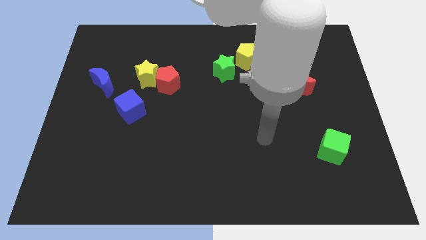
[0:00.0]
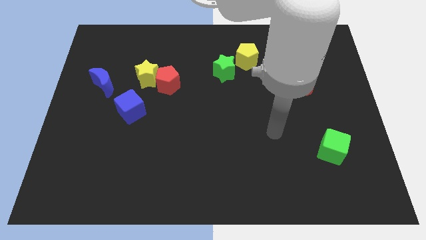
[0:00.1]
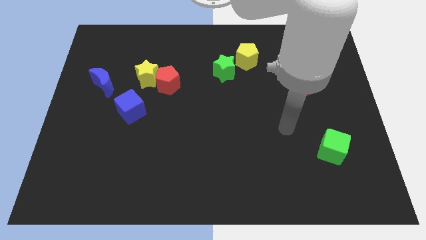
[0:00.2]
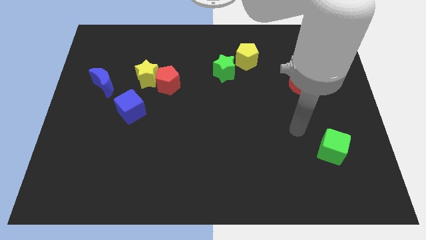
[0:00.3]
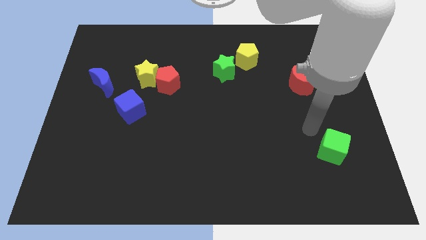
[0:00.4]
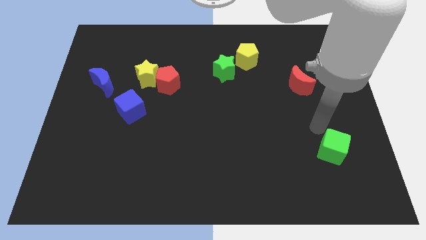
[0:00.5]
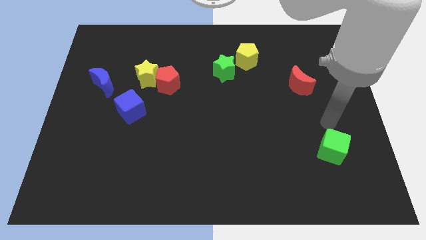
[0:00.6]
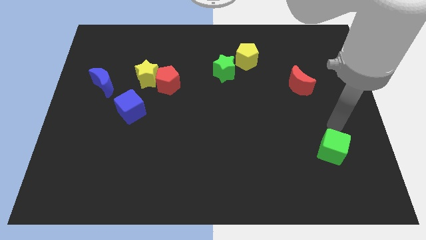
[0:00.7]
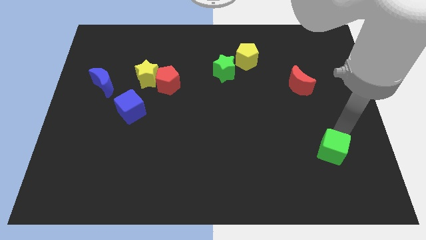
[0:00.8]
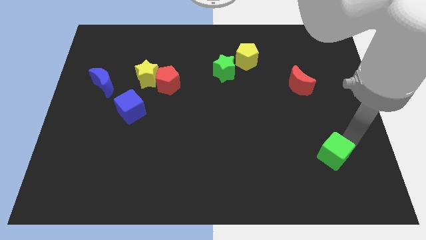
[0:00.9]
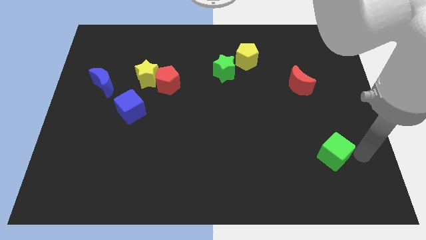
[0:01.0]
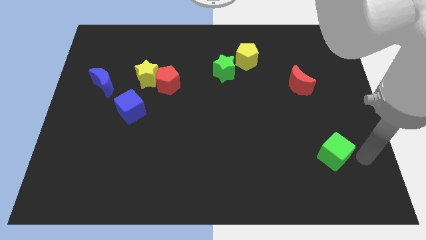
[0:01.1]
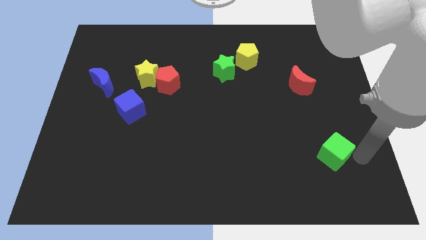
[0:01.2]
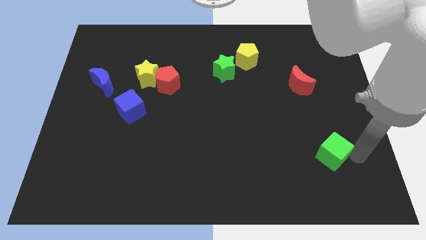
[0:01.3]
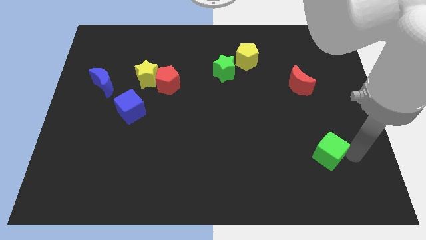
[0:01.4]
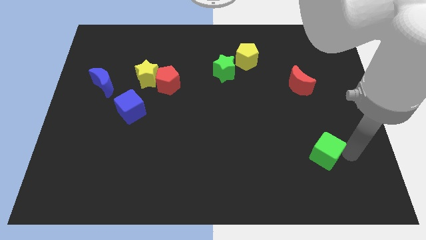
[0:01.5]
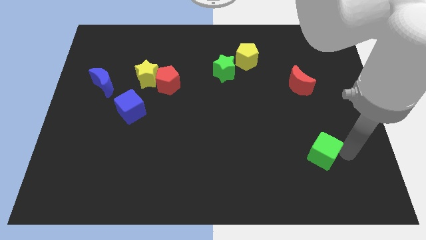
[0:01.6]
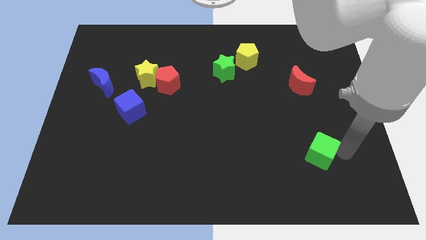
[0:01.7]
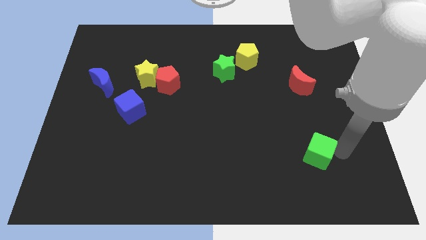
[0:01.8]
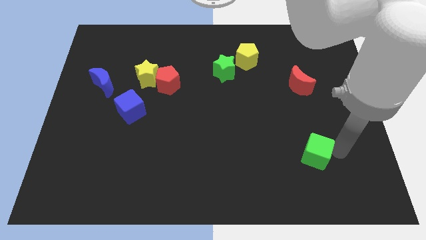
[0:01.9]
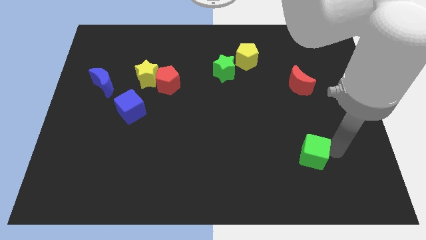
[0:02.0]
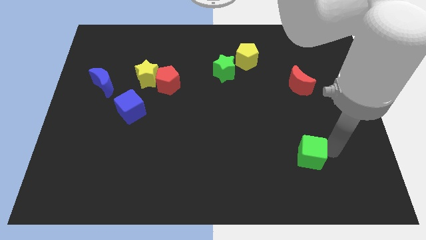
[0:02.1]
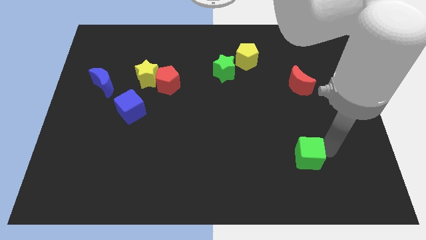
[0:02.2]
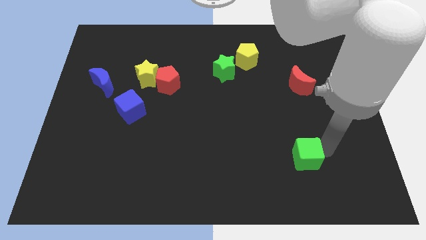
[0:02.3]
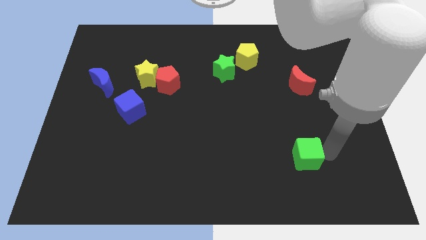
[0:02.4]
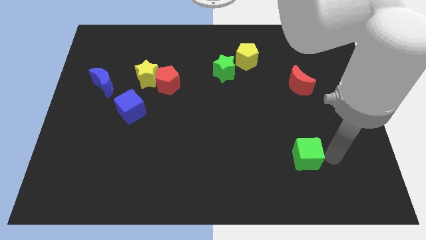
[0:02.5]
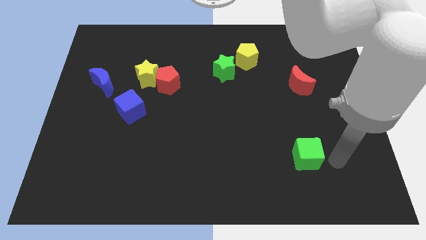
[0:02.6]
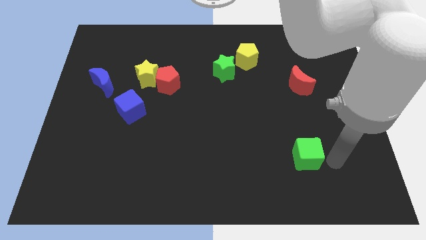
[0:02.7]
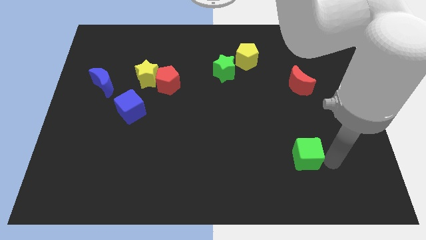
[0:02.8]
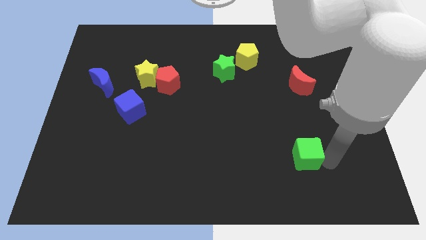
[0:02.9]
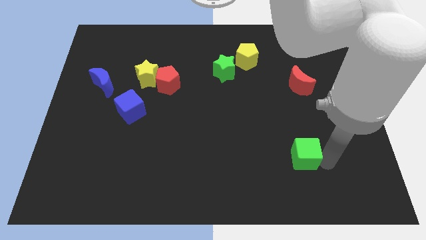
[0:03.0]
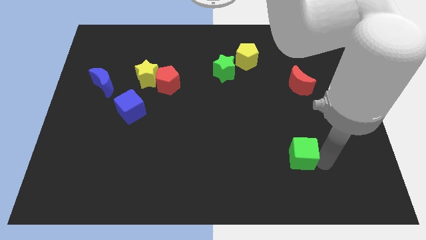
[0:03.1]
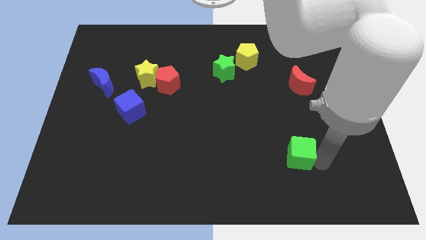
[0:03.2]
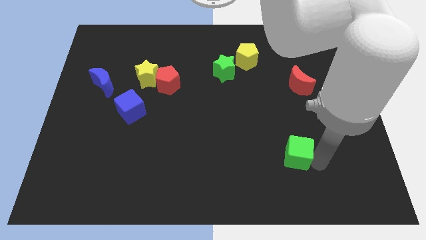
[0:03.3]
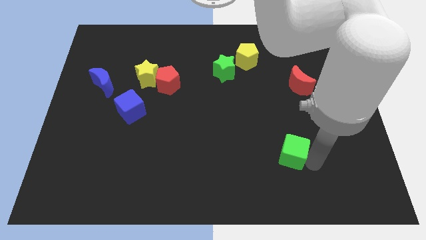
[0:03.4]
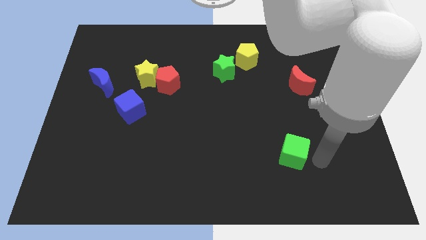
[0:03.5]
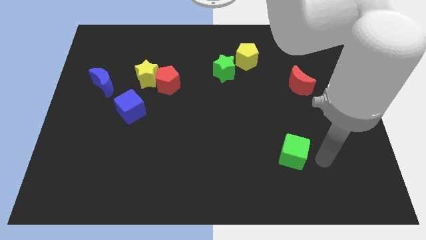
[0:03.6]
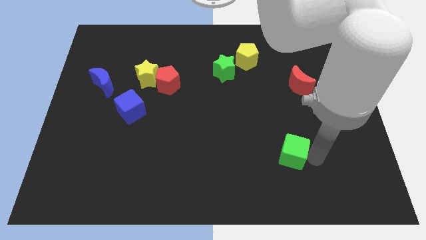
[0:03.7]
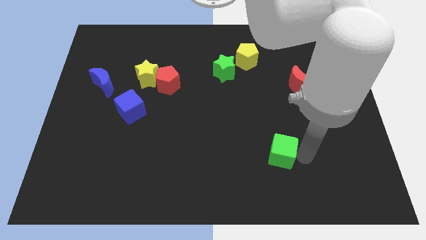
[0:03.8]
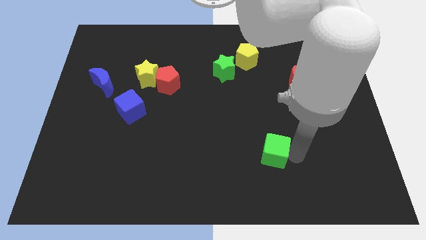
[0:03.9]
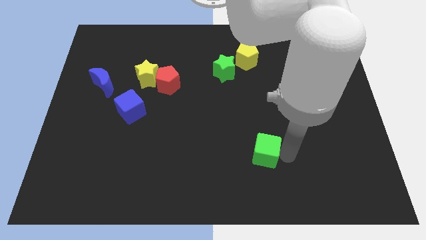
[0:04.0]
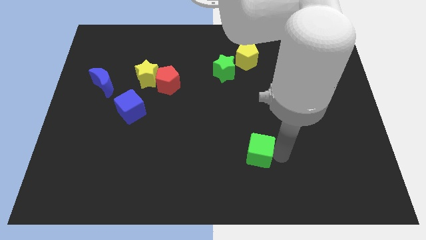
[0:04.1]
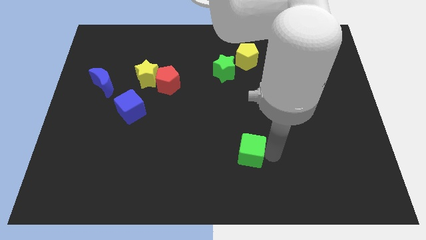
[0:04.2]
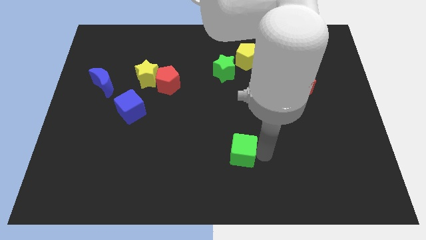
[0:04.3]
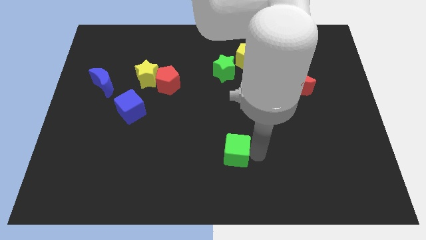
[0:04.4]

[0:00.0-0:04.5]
slide the green cube left

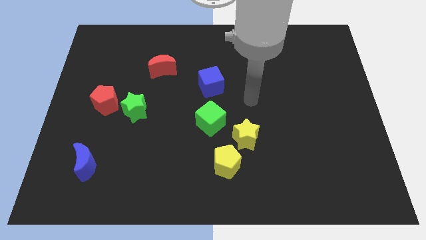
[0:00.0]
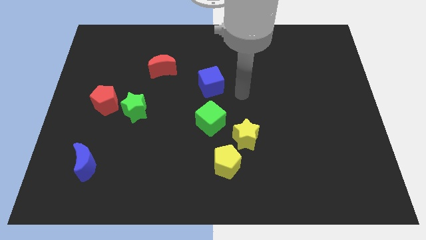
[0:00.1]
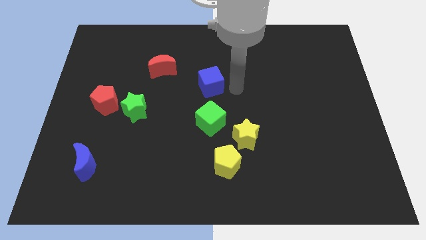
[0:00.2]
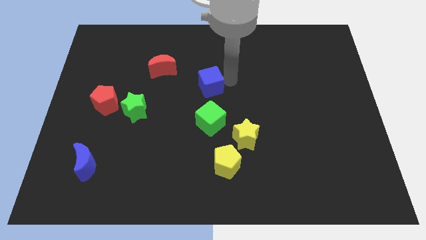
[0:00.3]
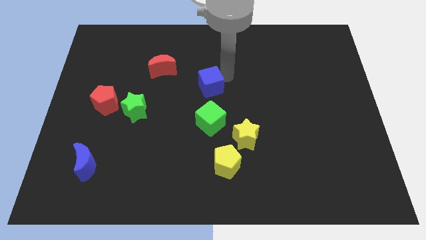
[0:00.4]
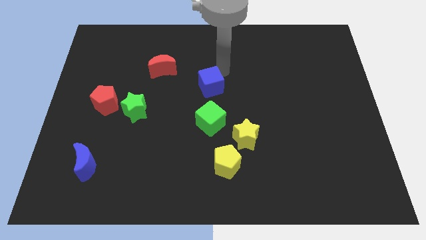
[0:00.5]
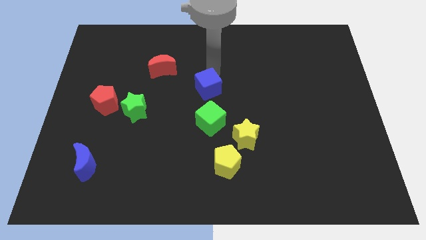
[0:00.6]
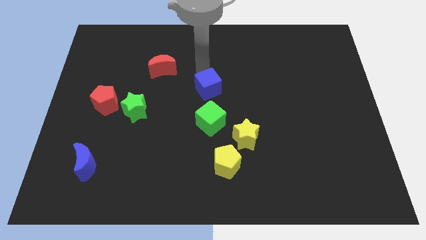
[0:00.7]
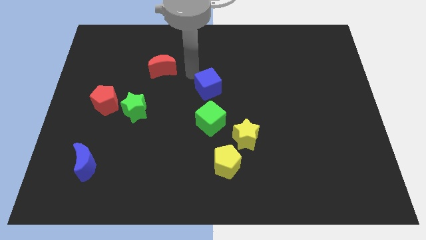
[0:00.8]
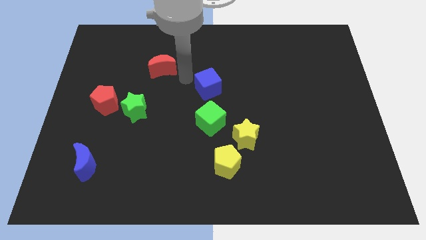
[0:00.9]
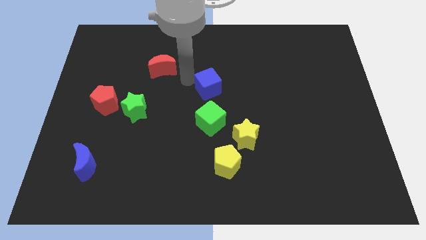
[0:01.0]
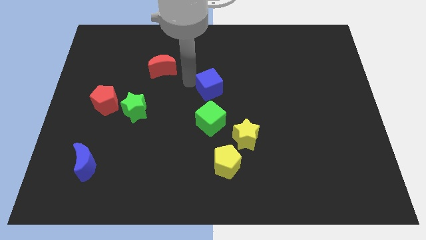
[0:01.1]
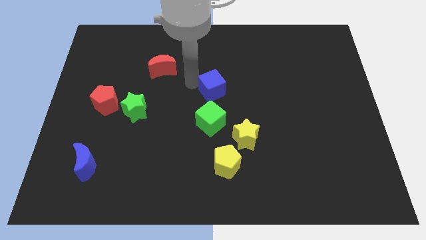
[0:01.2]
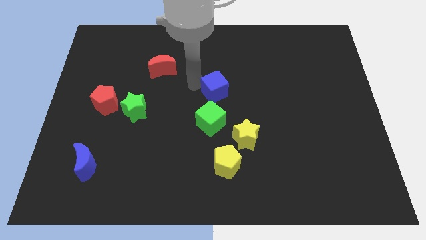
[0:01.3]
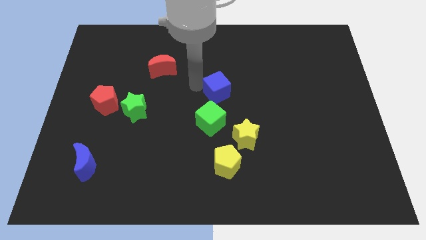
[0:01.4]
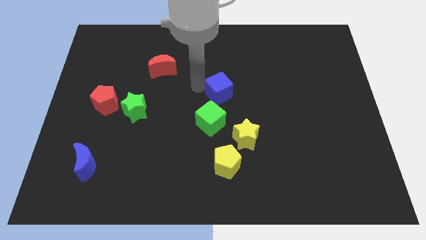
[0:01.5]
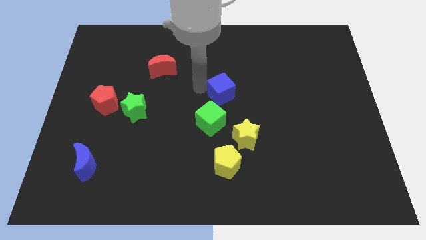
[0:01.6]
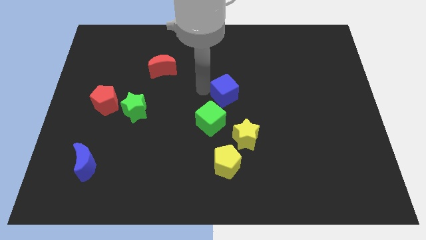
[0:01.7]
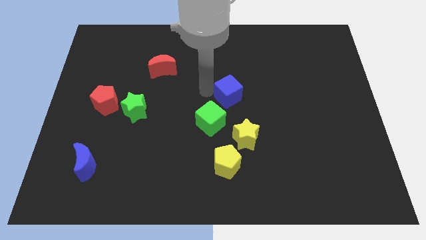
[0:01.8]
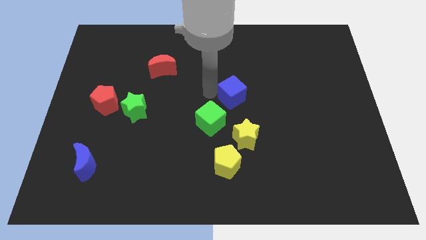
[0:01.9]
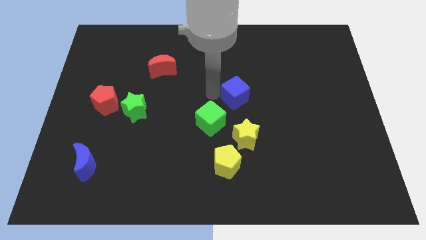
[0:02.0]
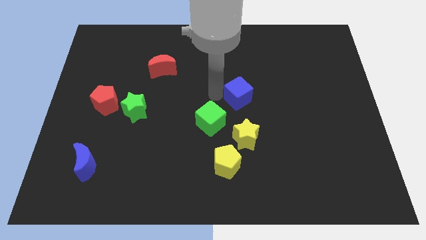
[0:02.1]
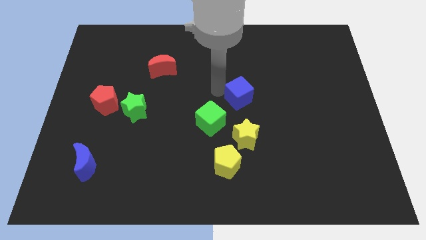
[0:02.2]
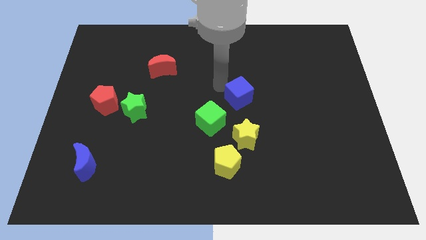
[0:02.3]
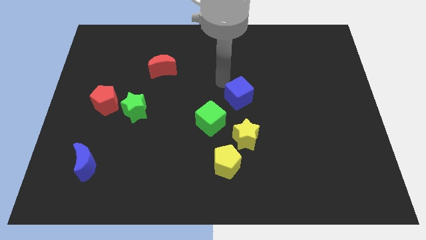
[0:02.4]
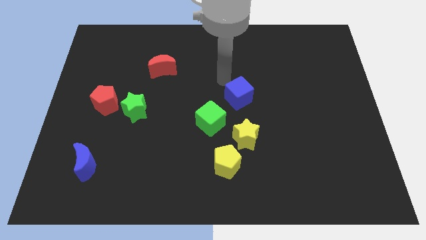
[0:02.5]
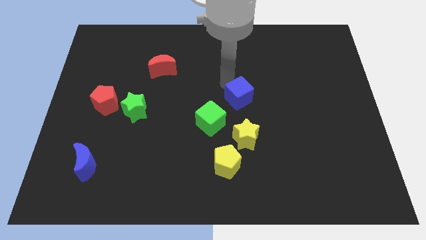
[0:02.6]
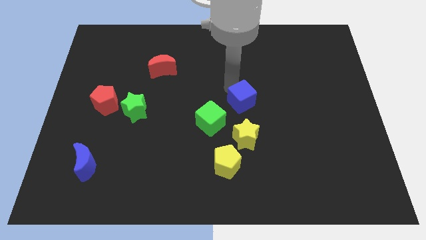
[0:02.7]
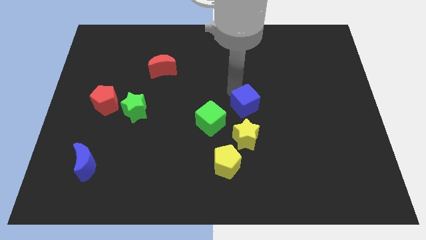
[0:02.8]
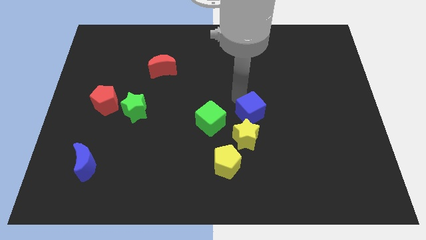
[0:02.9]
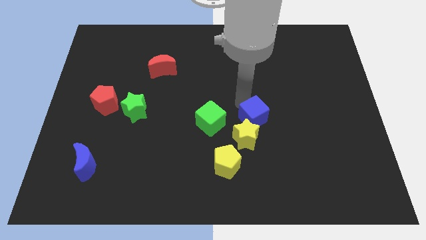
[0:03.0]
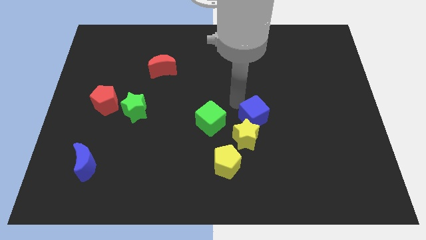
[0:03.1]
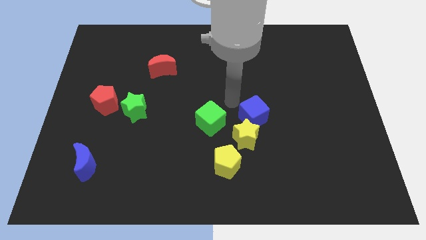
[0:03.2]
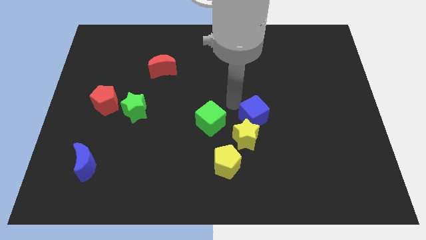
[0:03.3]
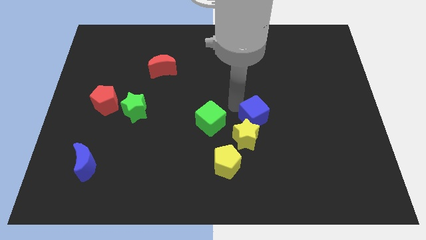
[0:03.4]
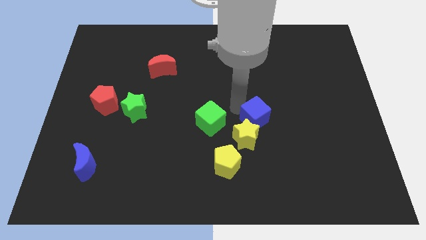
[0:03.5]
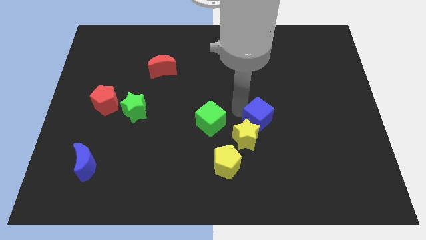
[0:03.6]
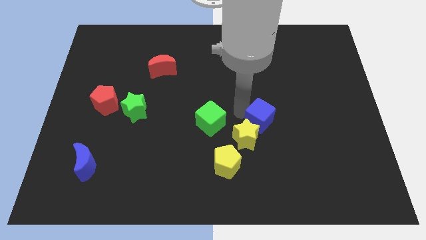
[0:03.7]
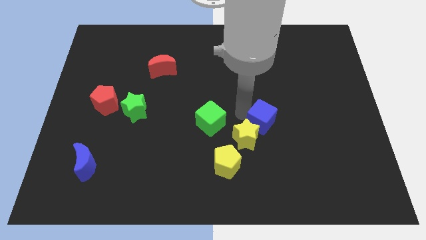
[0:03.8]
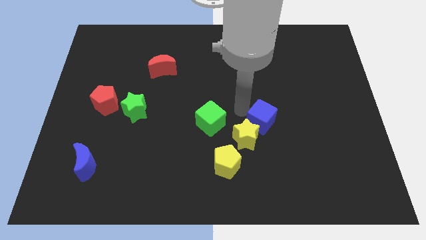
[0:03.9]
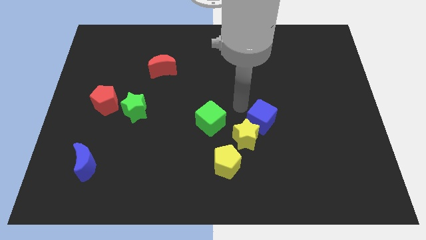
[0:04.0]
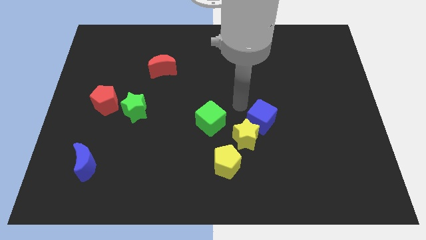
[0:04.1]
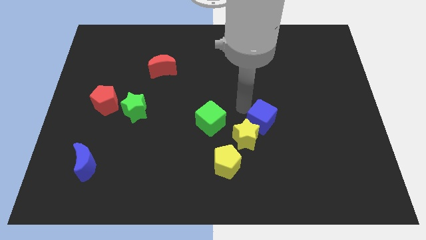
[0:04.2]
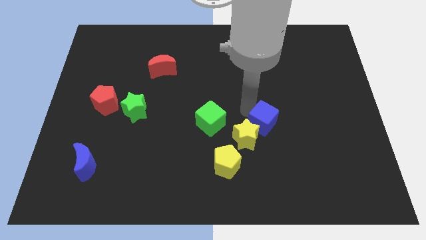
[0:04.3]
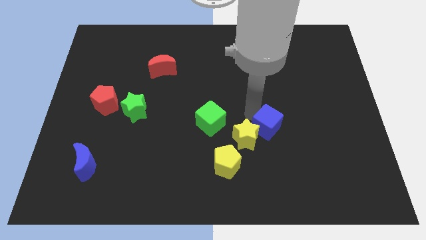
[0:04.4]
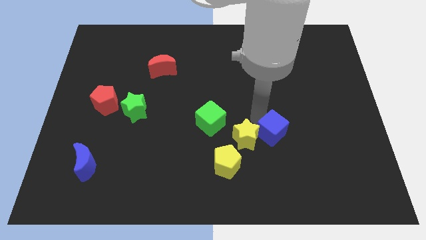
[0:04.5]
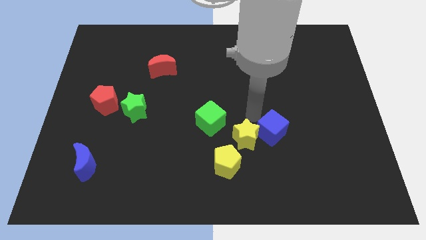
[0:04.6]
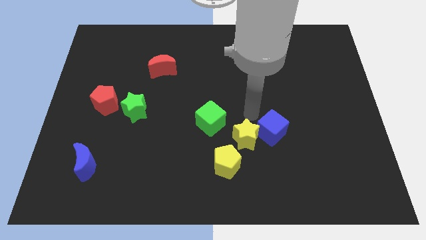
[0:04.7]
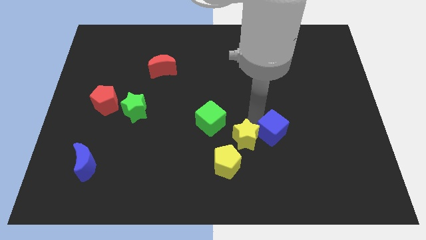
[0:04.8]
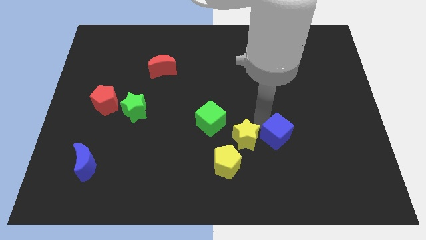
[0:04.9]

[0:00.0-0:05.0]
slide the blue cube diagonally downwards and right
